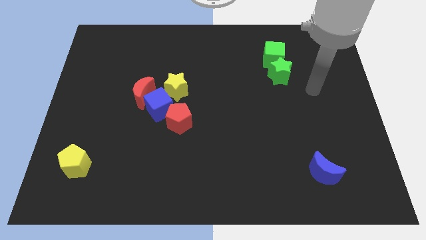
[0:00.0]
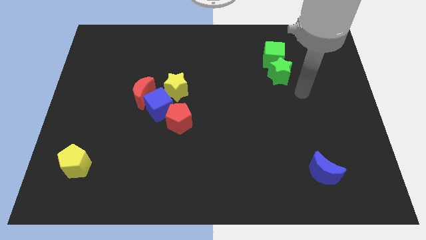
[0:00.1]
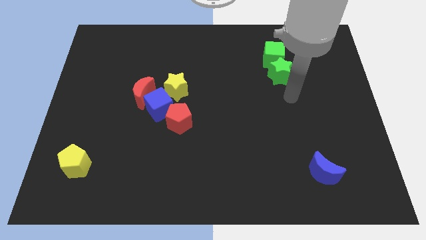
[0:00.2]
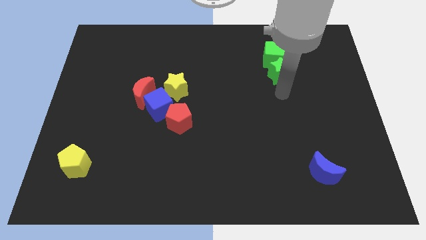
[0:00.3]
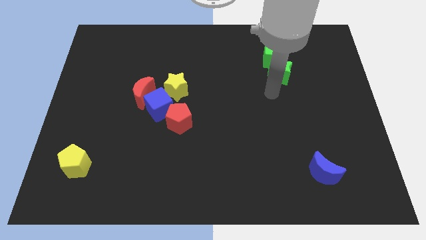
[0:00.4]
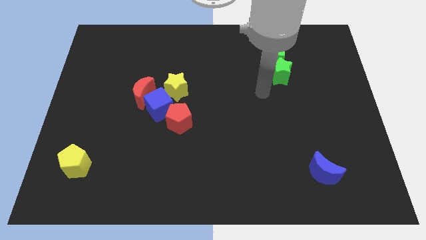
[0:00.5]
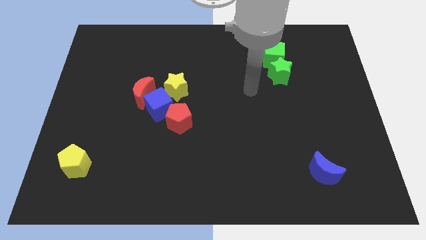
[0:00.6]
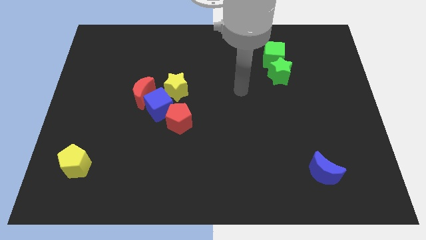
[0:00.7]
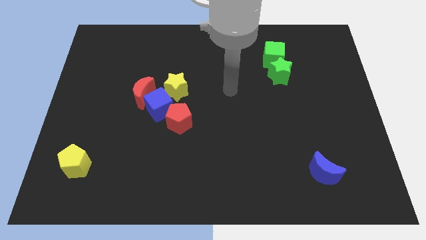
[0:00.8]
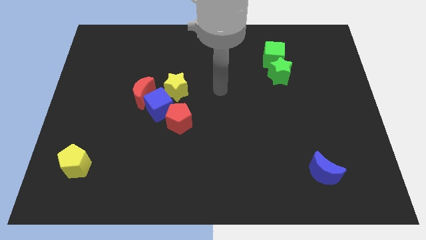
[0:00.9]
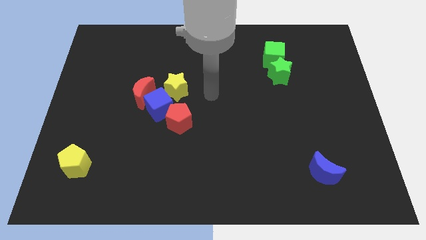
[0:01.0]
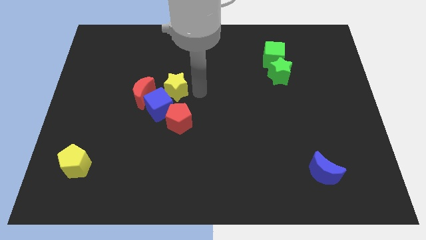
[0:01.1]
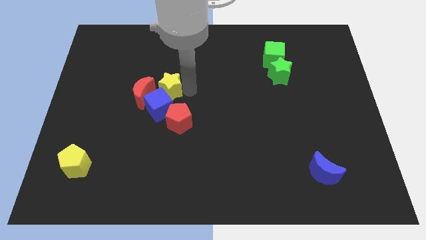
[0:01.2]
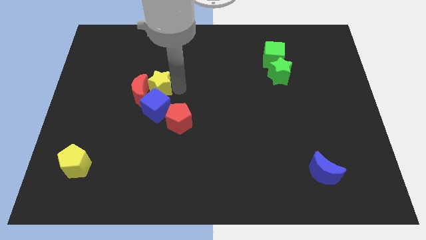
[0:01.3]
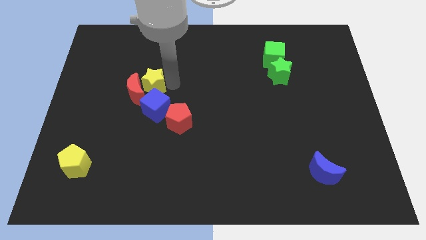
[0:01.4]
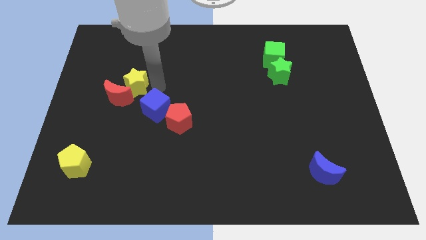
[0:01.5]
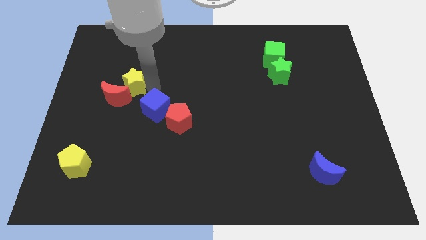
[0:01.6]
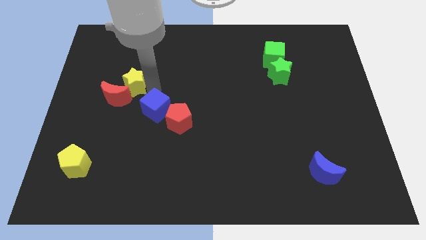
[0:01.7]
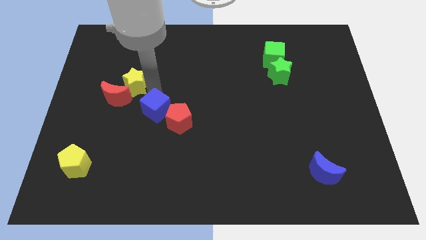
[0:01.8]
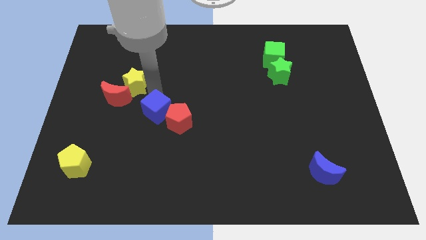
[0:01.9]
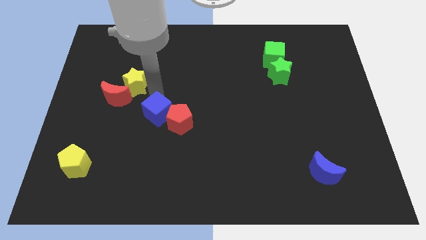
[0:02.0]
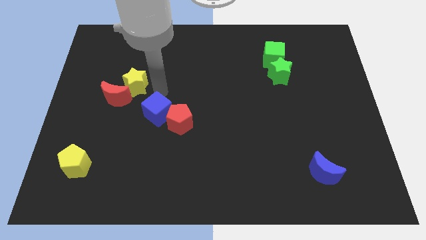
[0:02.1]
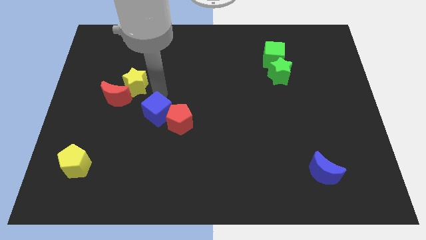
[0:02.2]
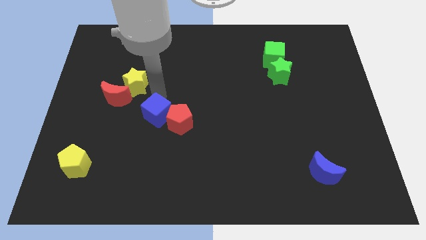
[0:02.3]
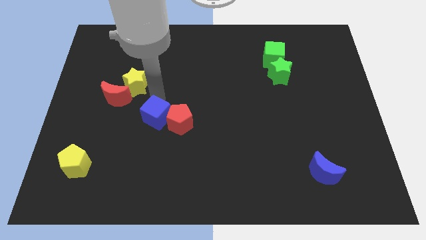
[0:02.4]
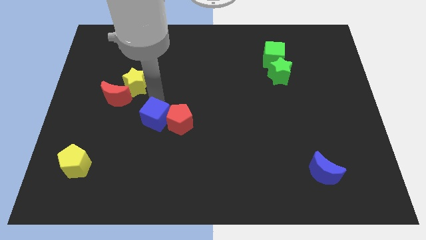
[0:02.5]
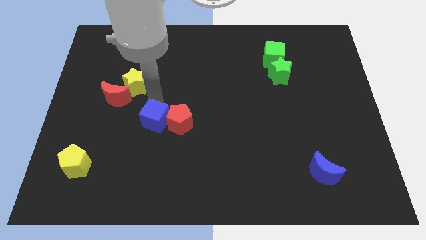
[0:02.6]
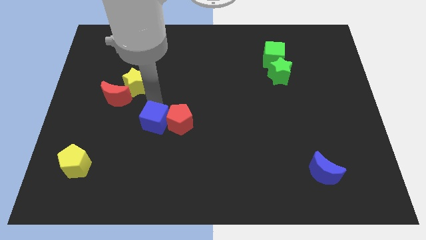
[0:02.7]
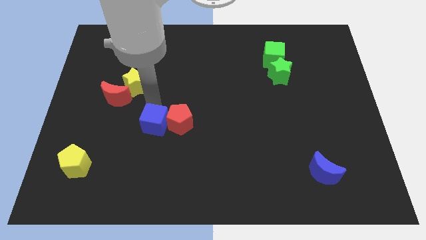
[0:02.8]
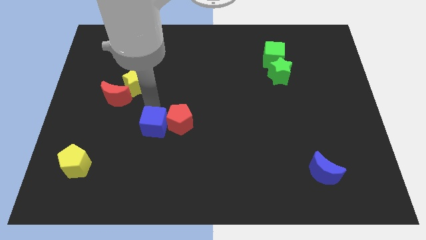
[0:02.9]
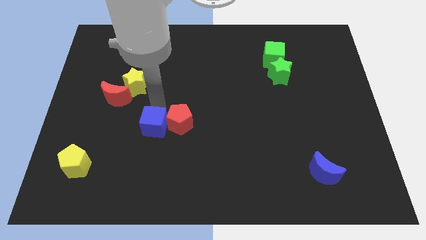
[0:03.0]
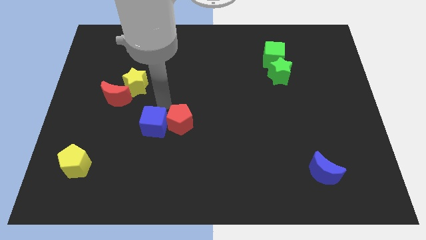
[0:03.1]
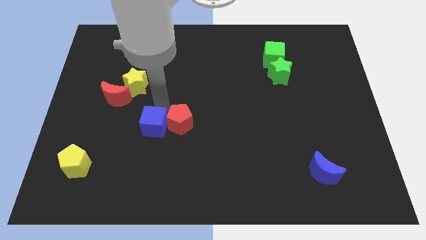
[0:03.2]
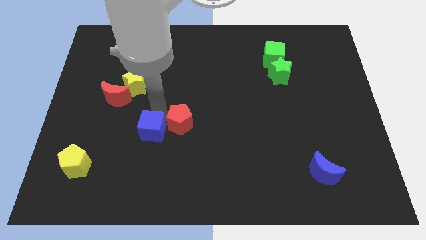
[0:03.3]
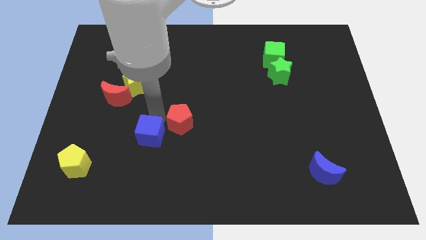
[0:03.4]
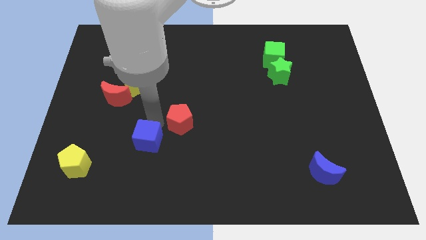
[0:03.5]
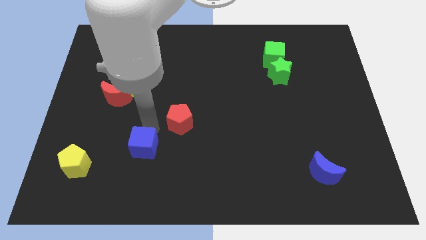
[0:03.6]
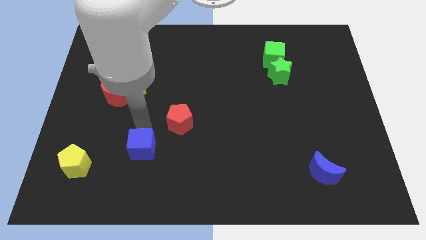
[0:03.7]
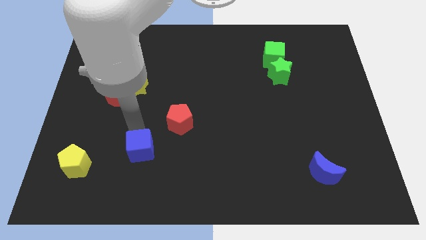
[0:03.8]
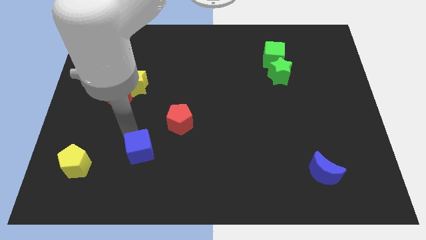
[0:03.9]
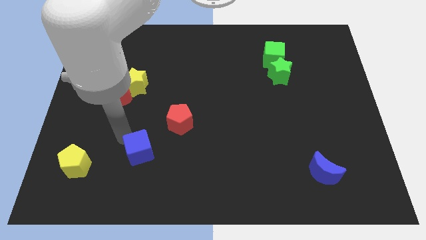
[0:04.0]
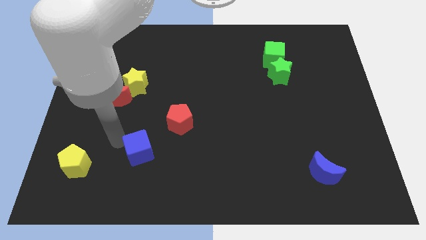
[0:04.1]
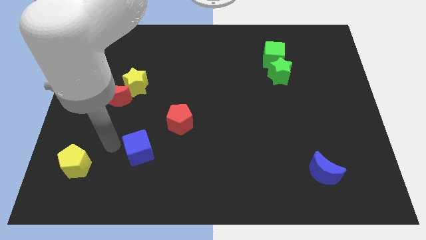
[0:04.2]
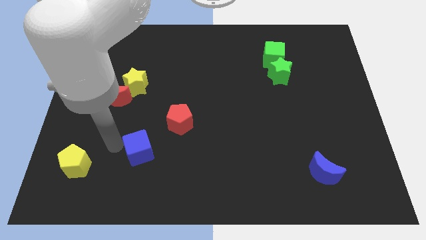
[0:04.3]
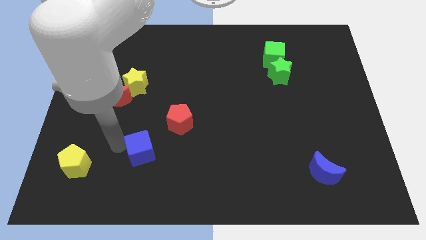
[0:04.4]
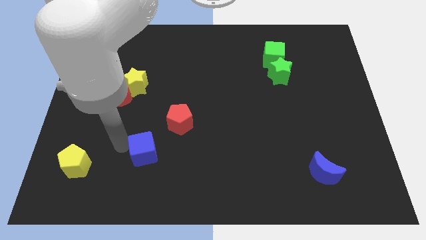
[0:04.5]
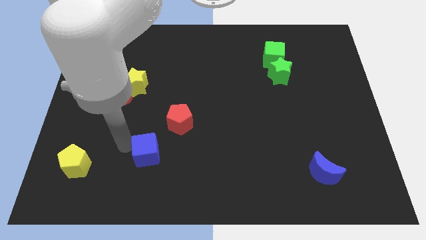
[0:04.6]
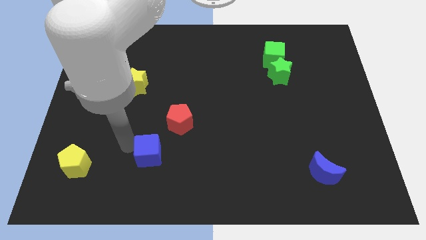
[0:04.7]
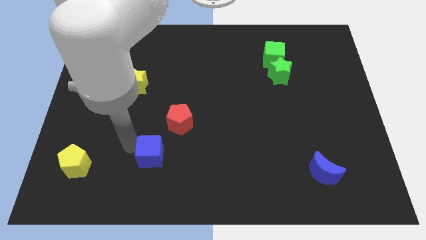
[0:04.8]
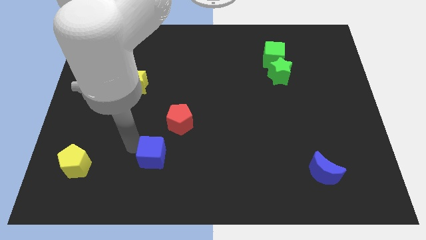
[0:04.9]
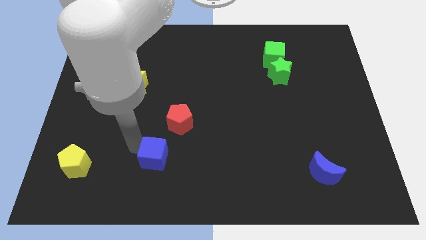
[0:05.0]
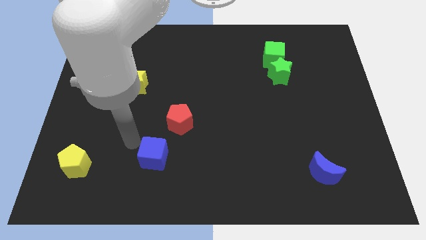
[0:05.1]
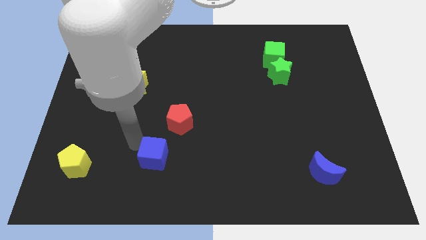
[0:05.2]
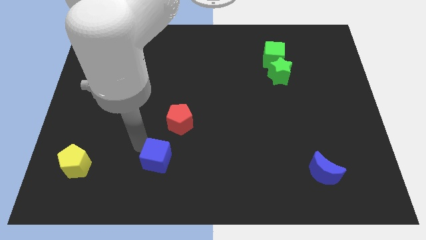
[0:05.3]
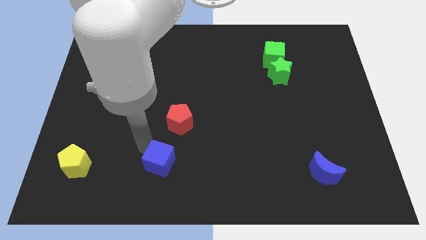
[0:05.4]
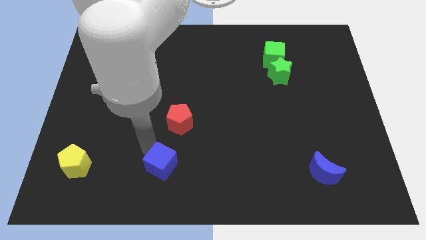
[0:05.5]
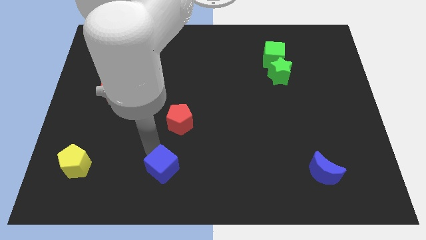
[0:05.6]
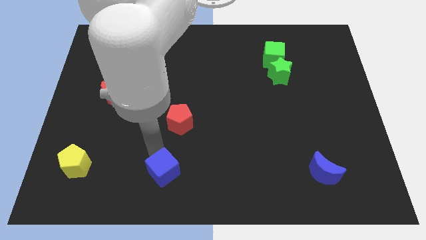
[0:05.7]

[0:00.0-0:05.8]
push the blue cube to the bottom

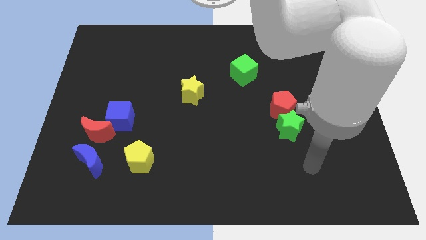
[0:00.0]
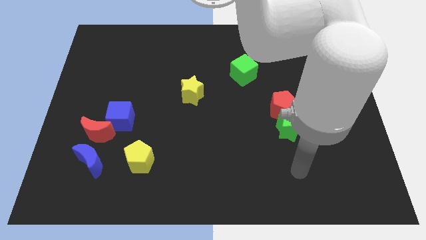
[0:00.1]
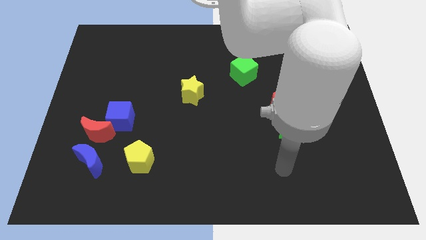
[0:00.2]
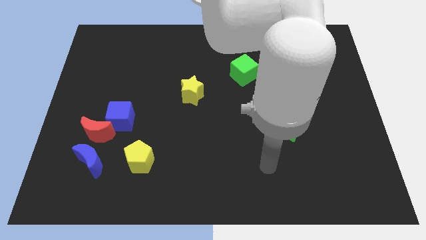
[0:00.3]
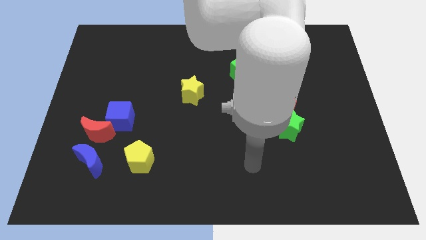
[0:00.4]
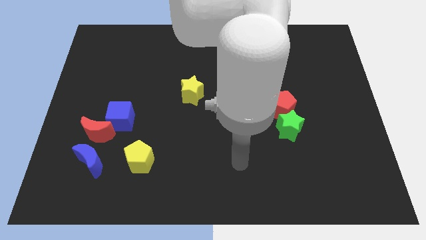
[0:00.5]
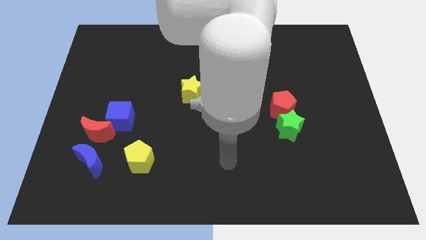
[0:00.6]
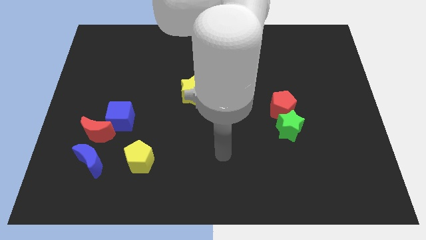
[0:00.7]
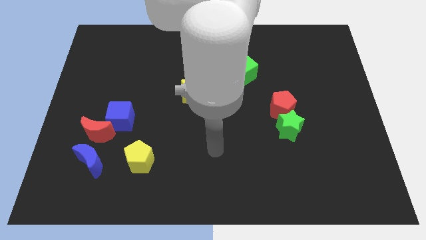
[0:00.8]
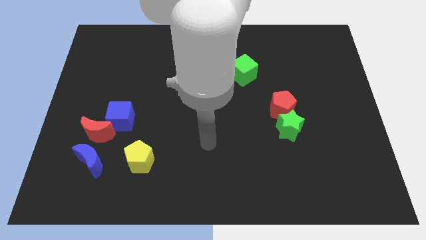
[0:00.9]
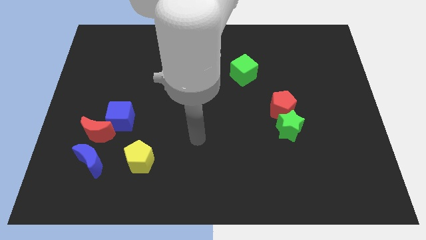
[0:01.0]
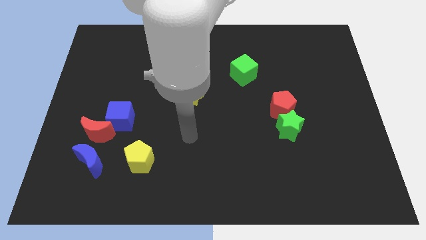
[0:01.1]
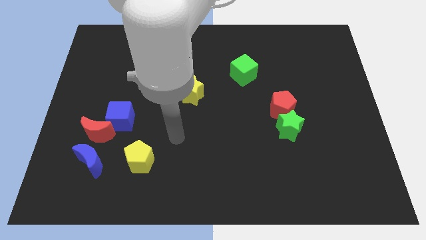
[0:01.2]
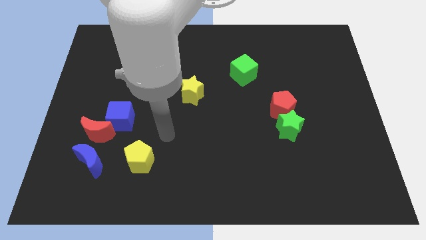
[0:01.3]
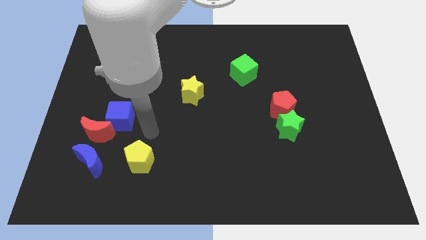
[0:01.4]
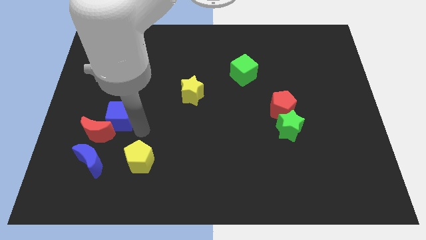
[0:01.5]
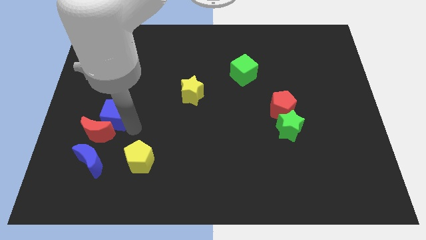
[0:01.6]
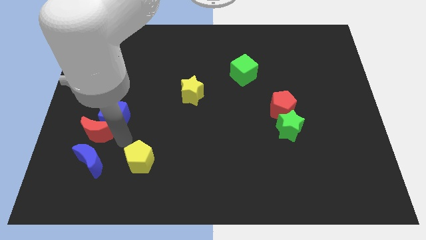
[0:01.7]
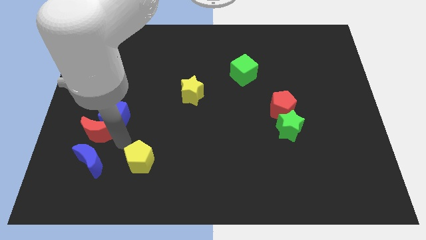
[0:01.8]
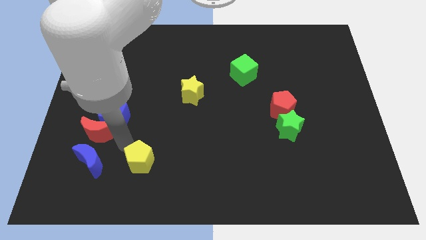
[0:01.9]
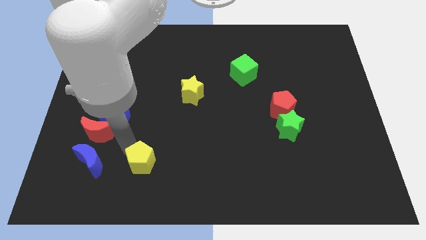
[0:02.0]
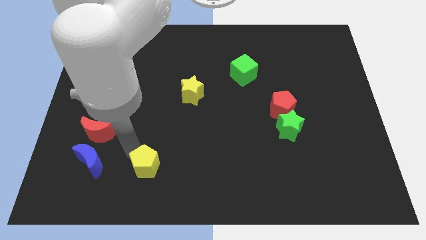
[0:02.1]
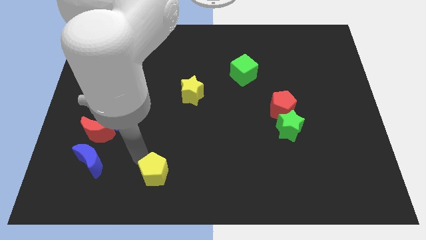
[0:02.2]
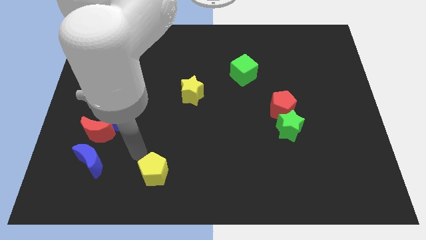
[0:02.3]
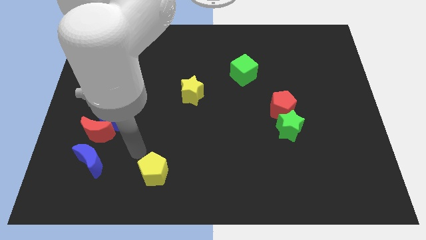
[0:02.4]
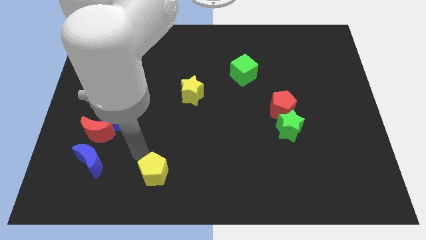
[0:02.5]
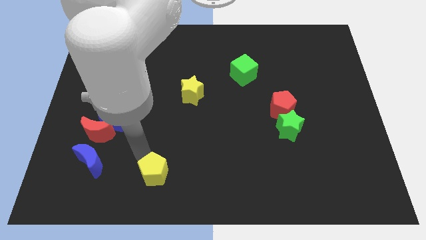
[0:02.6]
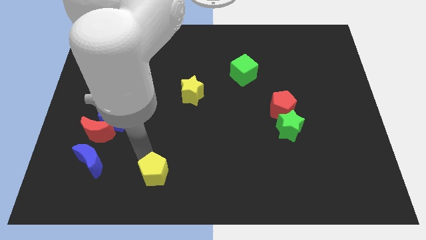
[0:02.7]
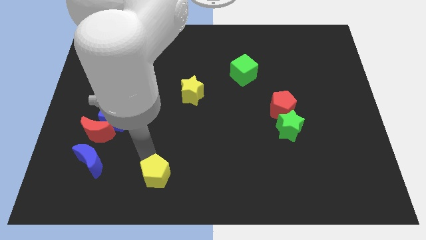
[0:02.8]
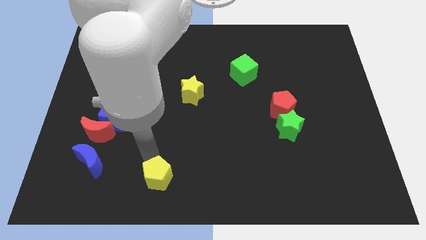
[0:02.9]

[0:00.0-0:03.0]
slide the yellow pentagon to the bottom
